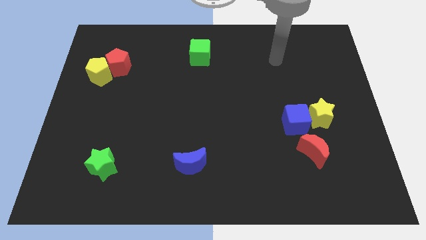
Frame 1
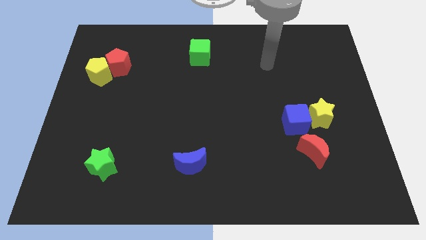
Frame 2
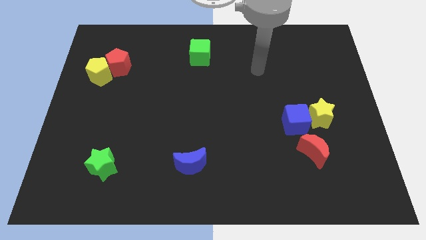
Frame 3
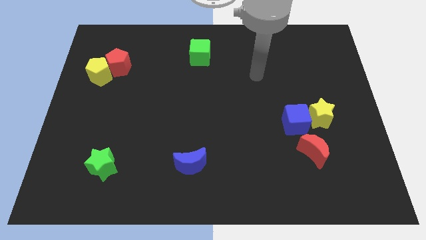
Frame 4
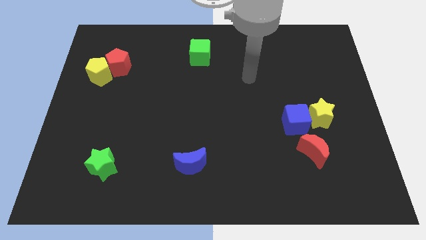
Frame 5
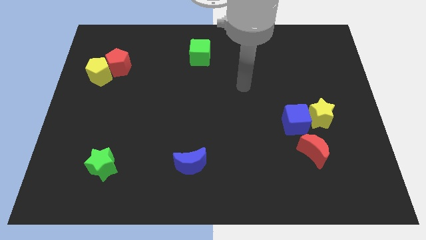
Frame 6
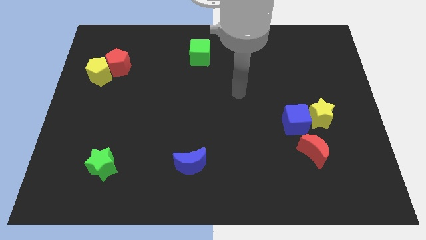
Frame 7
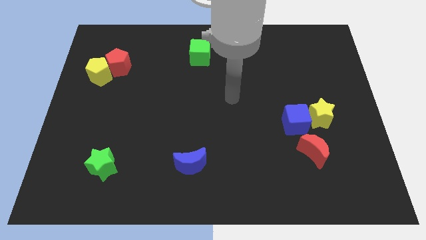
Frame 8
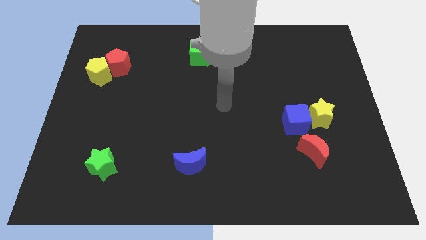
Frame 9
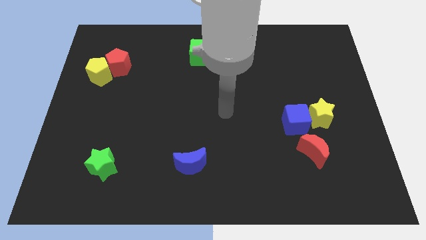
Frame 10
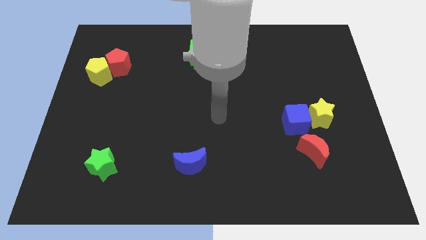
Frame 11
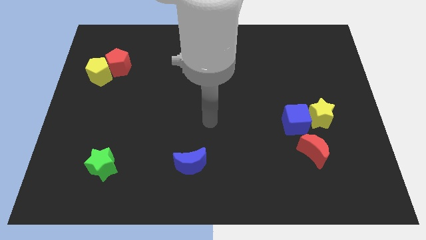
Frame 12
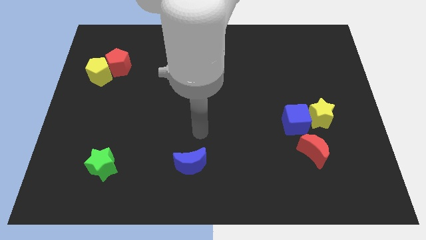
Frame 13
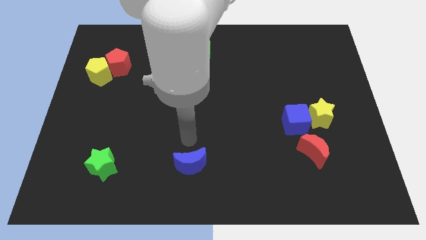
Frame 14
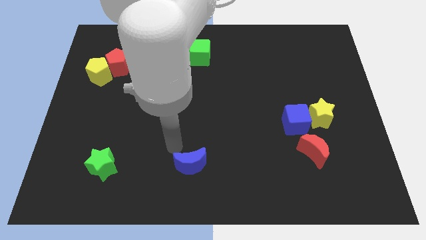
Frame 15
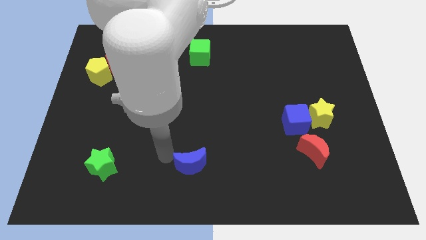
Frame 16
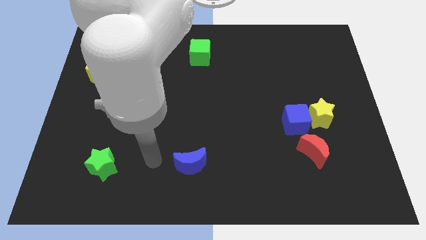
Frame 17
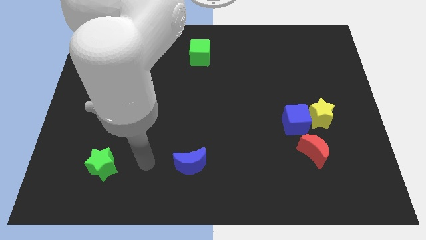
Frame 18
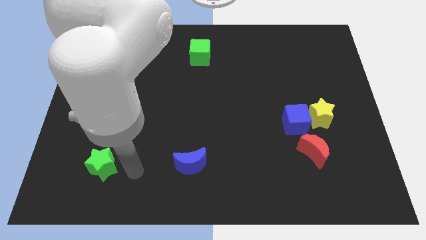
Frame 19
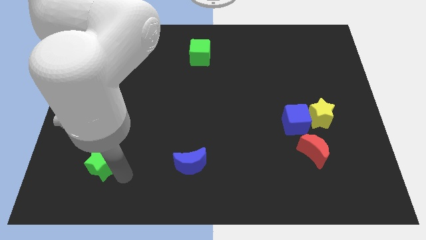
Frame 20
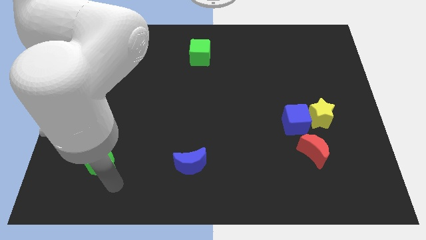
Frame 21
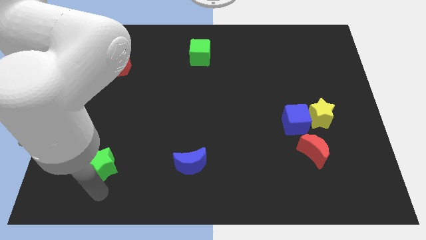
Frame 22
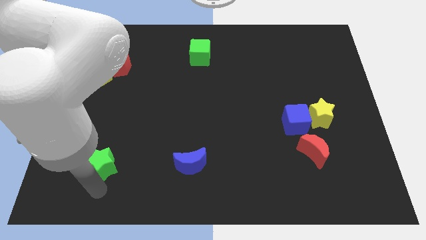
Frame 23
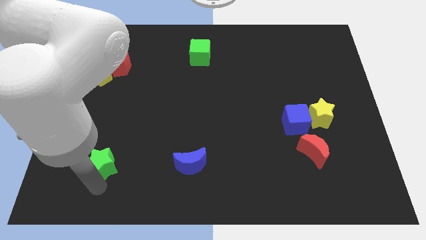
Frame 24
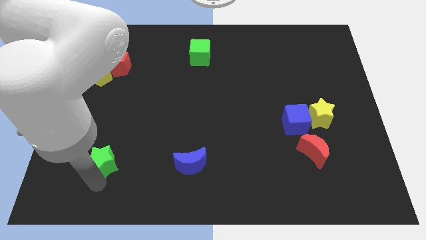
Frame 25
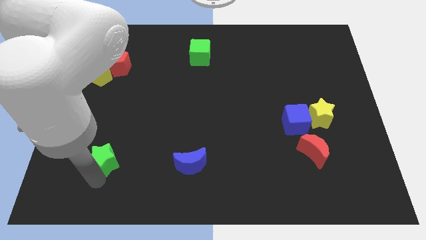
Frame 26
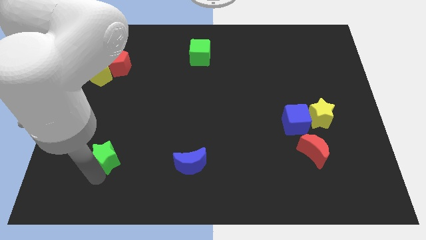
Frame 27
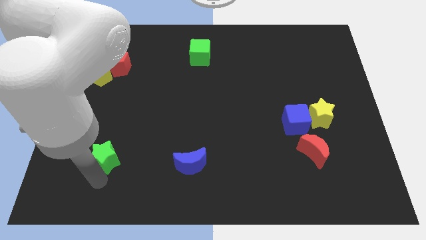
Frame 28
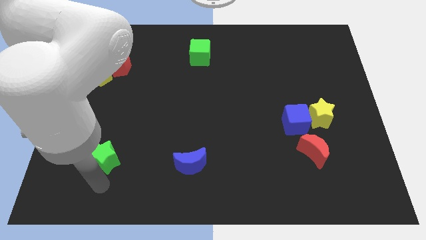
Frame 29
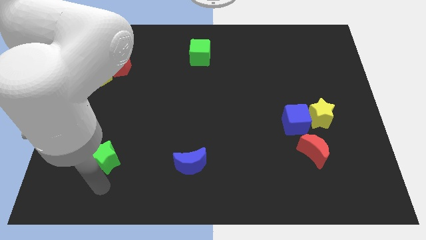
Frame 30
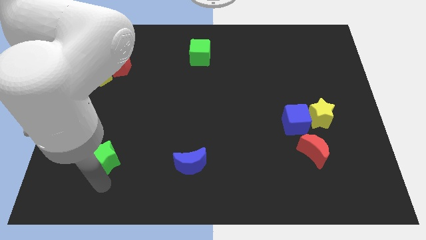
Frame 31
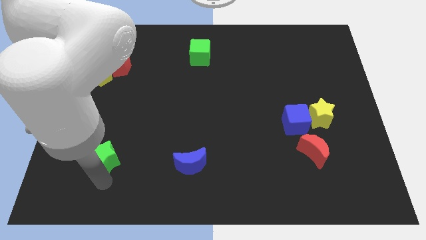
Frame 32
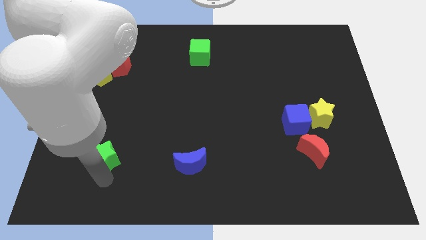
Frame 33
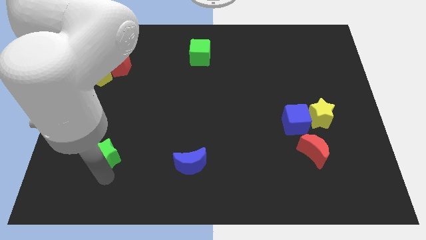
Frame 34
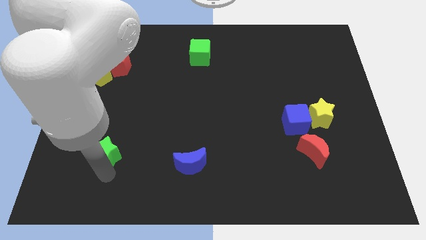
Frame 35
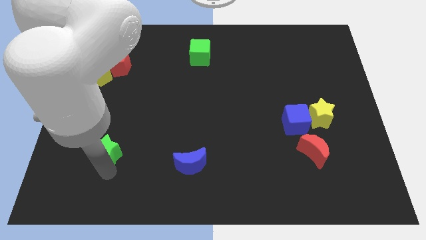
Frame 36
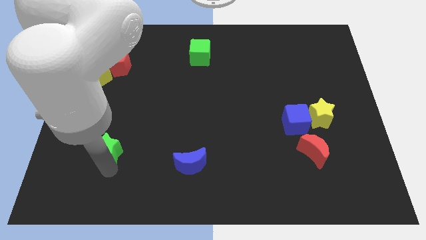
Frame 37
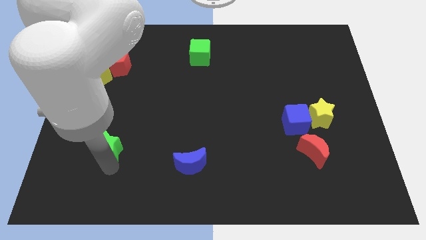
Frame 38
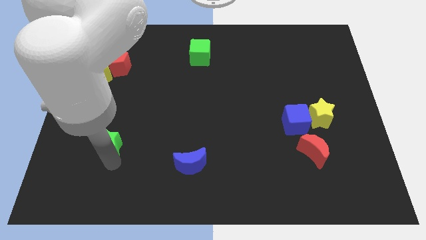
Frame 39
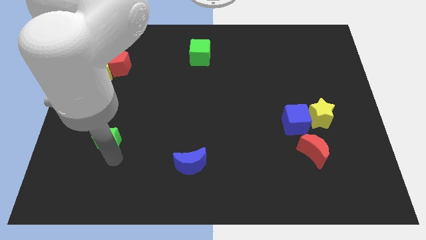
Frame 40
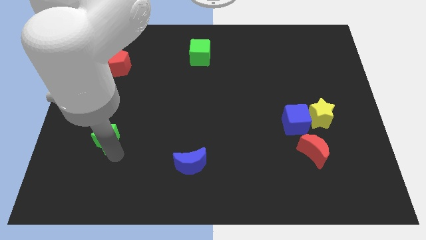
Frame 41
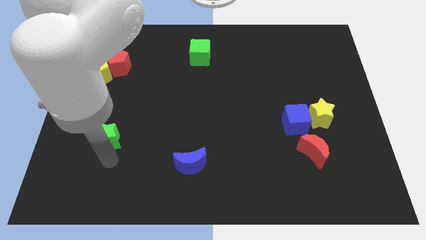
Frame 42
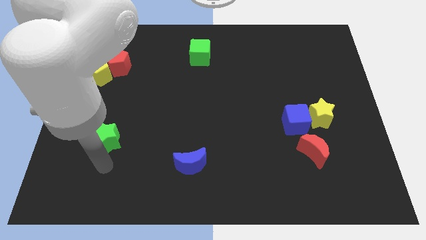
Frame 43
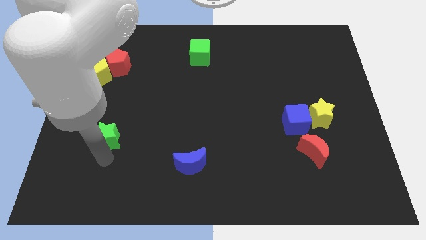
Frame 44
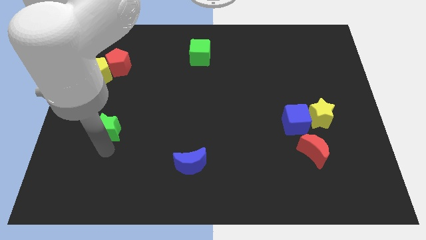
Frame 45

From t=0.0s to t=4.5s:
slide the green star a little bit up

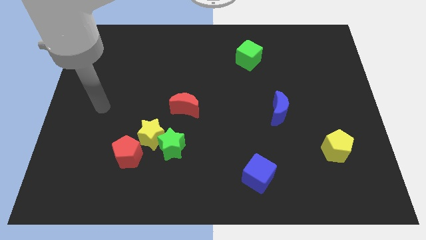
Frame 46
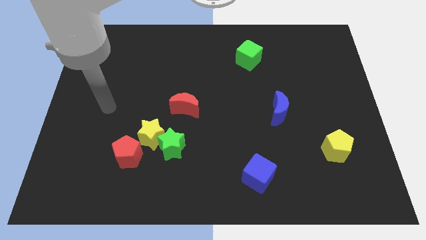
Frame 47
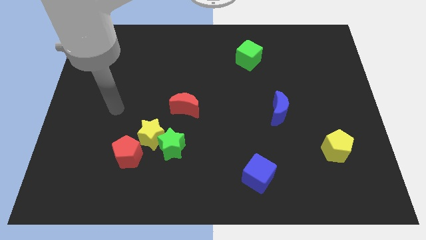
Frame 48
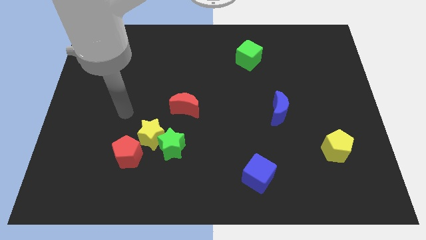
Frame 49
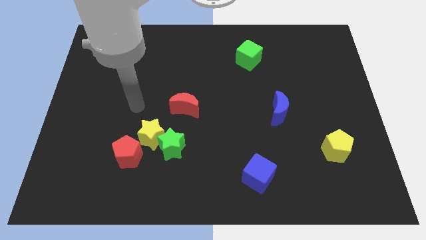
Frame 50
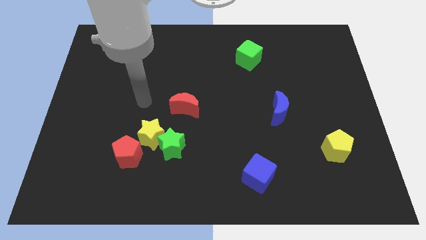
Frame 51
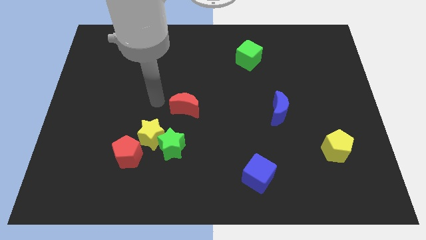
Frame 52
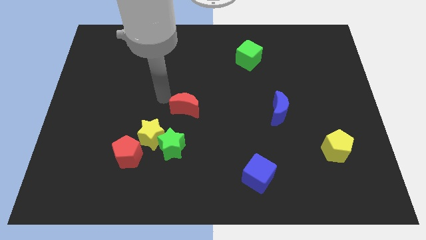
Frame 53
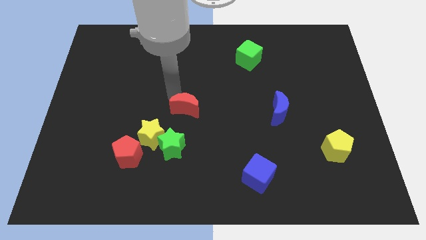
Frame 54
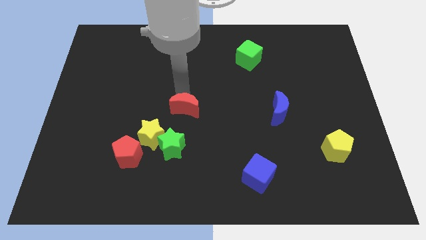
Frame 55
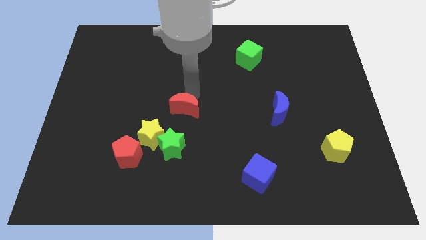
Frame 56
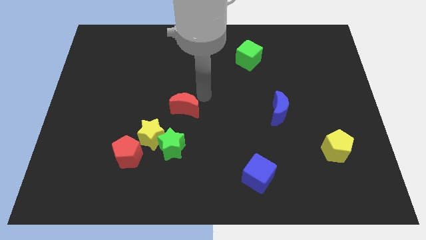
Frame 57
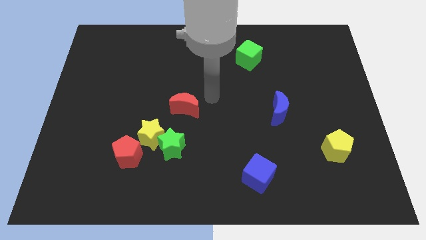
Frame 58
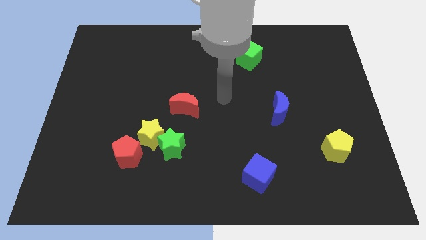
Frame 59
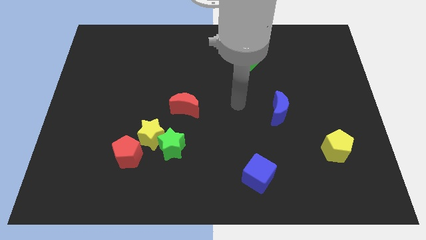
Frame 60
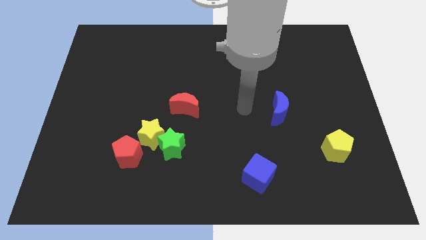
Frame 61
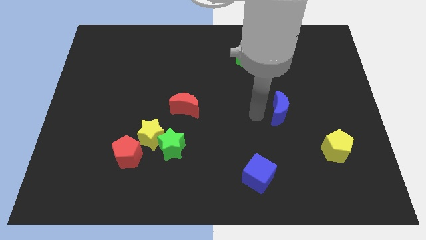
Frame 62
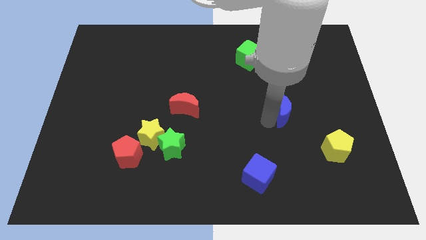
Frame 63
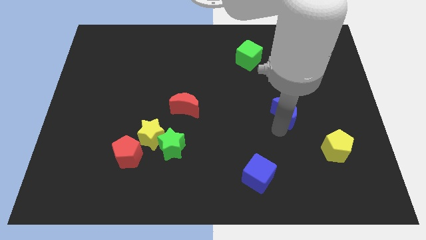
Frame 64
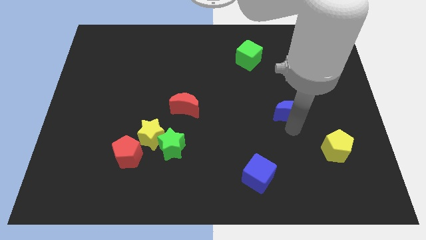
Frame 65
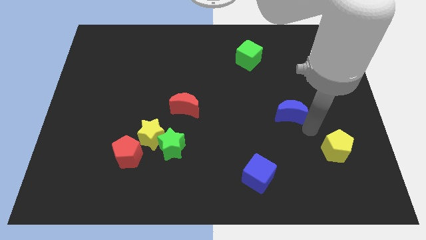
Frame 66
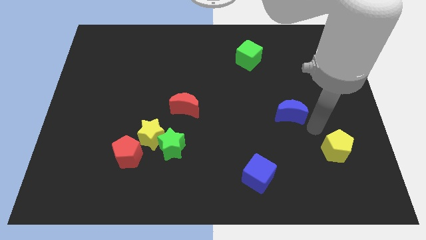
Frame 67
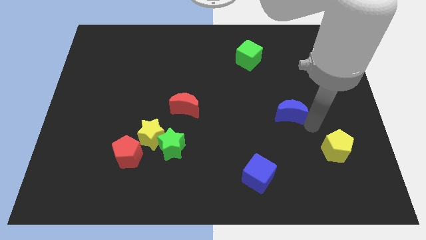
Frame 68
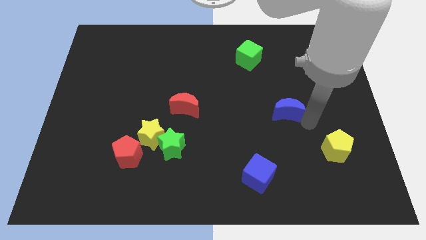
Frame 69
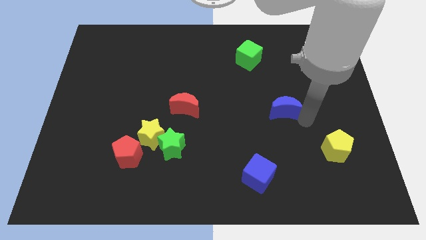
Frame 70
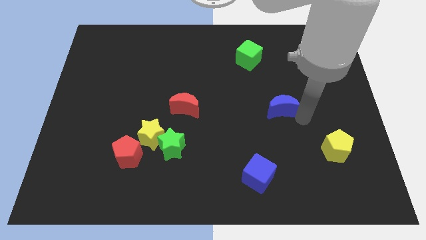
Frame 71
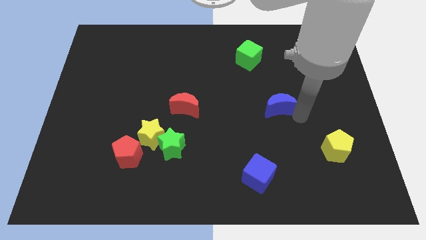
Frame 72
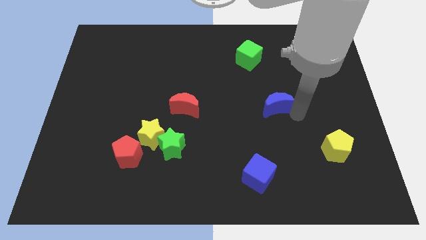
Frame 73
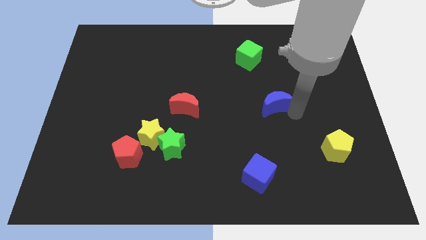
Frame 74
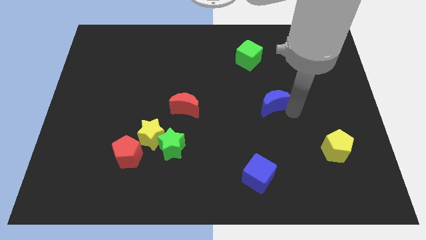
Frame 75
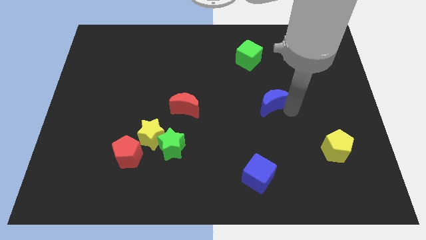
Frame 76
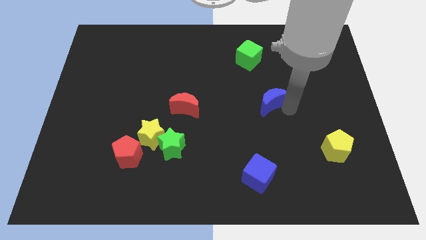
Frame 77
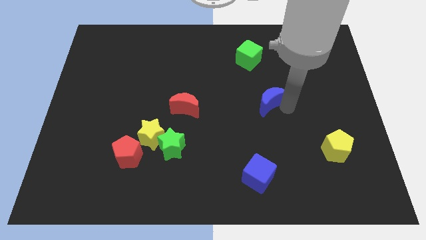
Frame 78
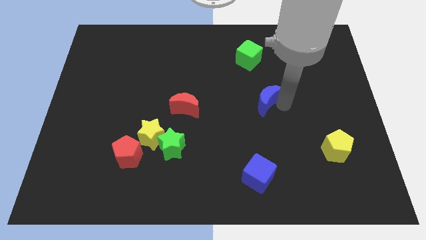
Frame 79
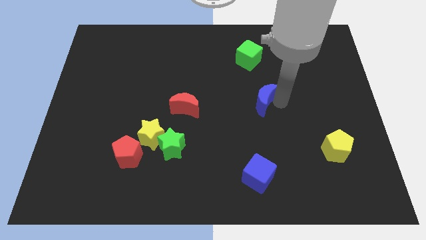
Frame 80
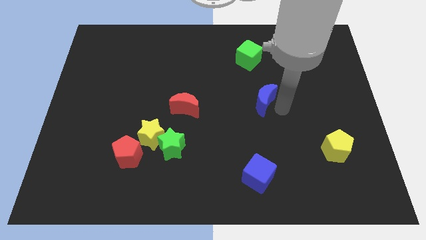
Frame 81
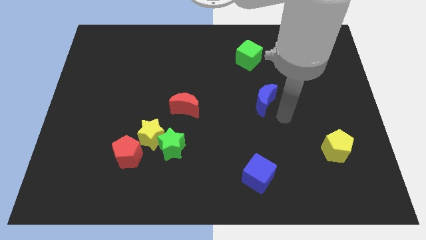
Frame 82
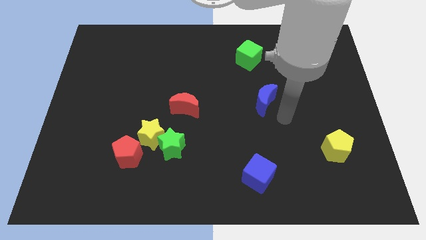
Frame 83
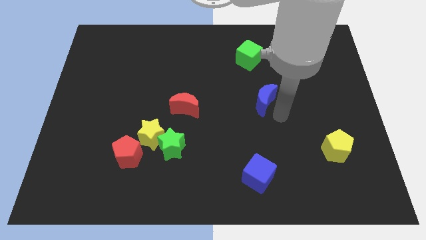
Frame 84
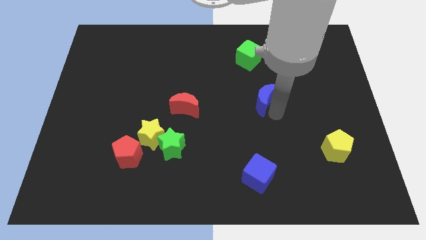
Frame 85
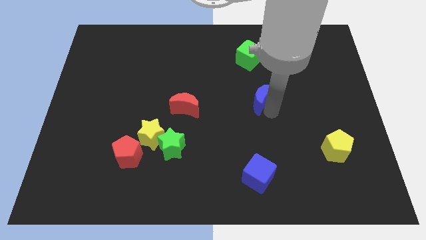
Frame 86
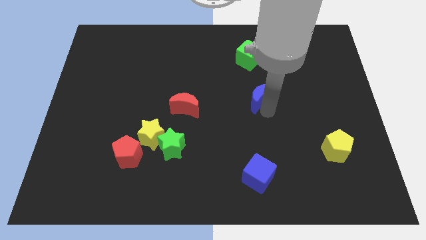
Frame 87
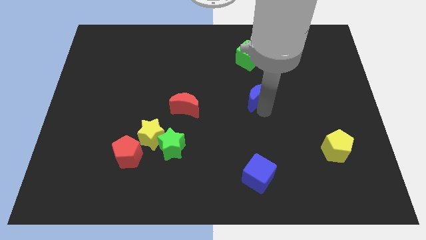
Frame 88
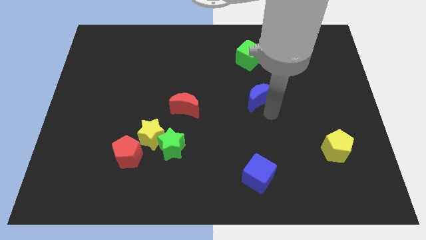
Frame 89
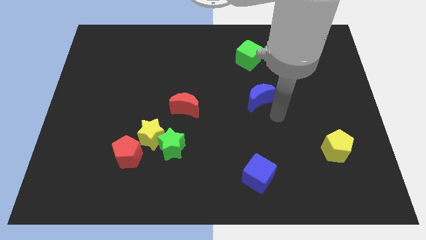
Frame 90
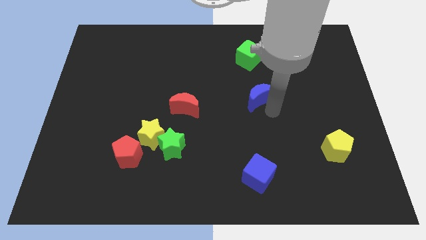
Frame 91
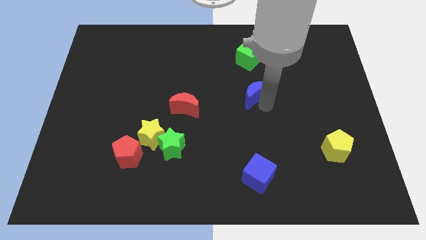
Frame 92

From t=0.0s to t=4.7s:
slide the blue moon up and to the left diagonally a bit
